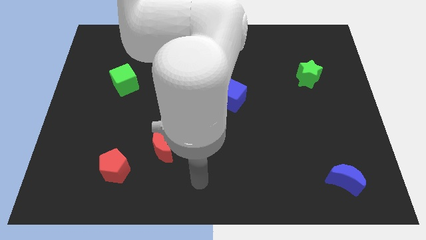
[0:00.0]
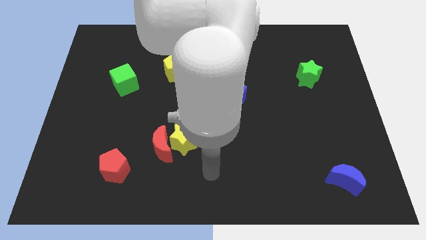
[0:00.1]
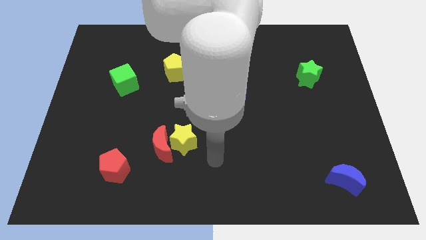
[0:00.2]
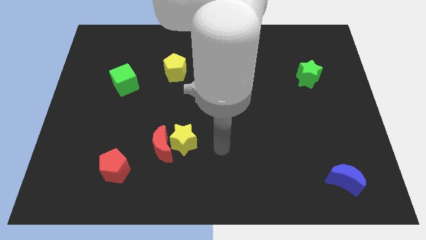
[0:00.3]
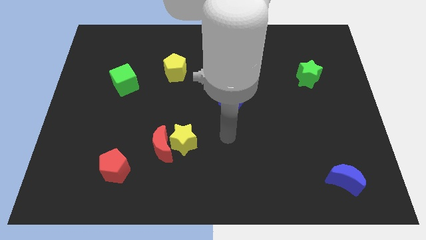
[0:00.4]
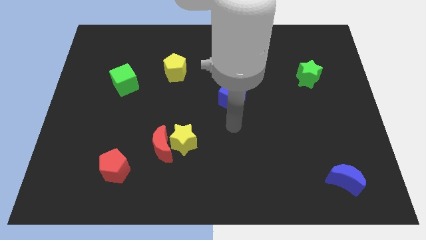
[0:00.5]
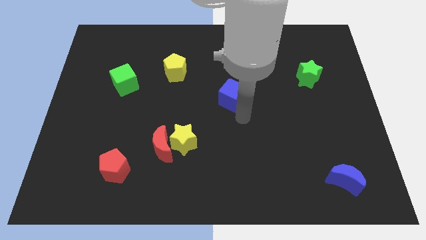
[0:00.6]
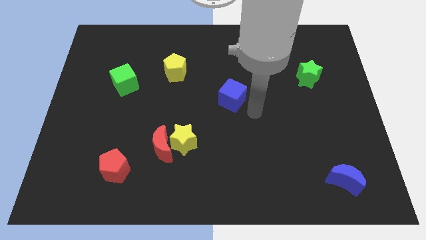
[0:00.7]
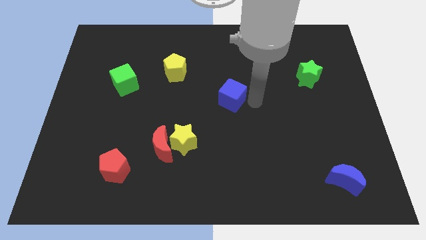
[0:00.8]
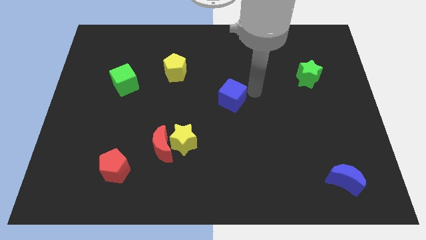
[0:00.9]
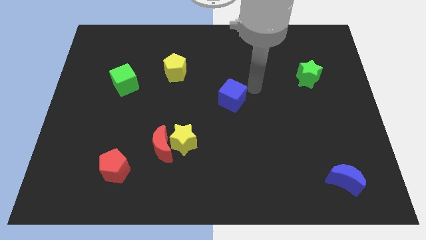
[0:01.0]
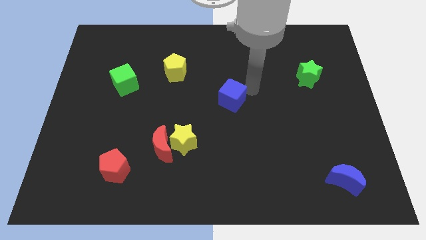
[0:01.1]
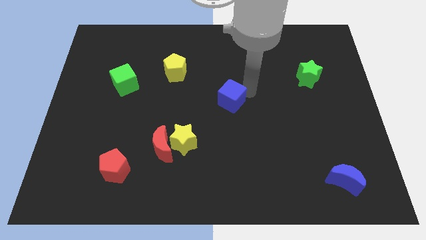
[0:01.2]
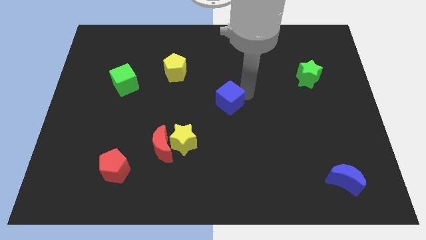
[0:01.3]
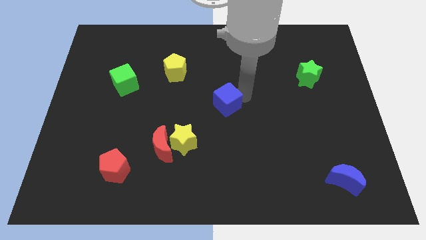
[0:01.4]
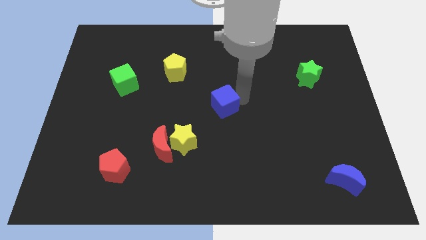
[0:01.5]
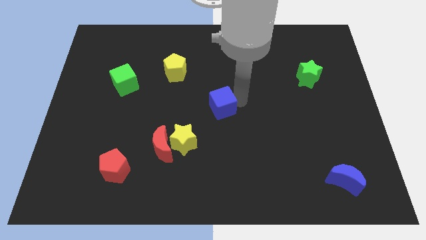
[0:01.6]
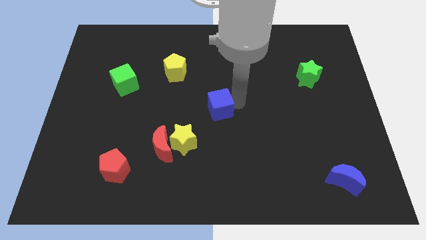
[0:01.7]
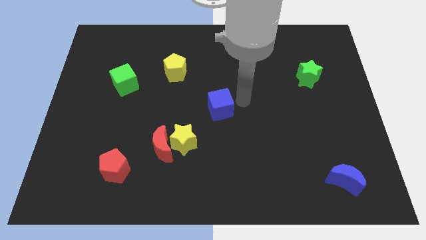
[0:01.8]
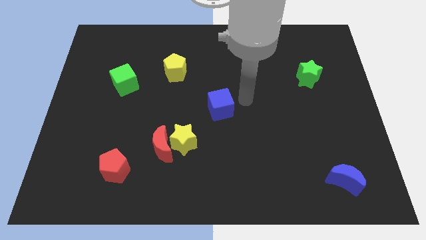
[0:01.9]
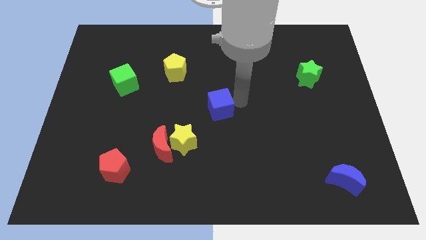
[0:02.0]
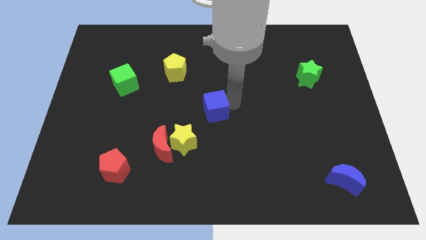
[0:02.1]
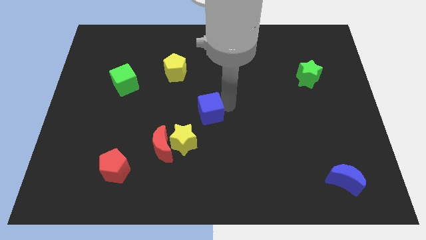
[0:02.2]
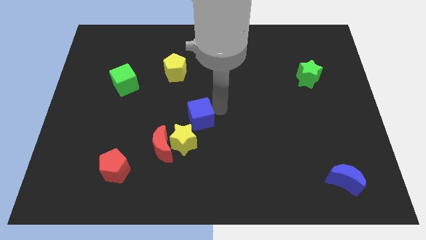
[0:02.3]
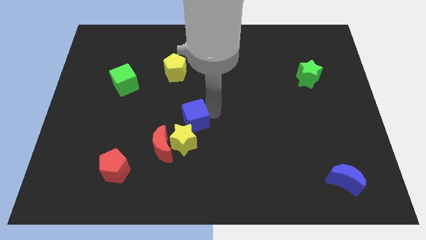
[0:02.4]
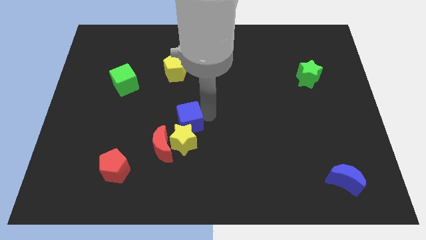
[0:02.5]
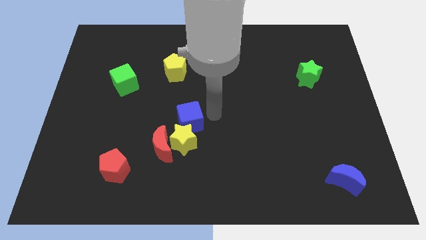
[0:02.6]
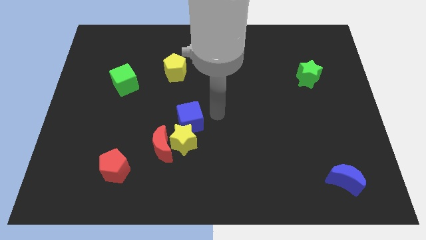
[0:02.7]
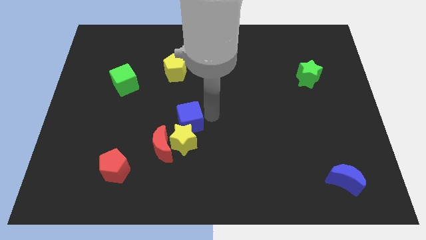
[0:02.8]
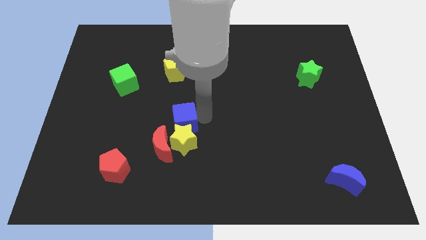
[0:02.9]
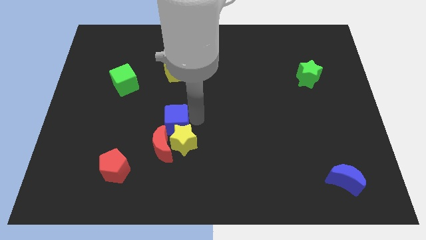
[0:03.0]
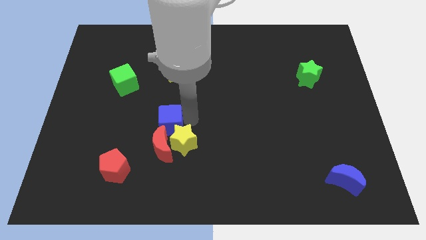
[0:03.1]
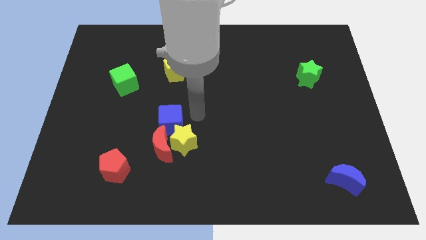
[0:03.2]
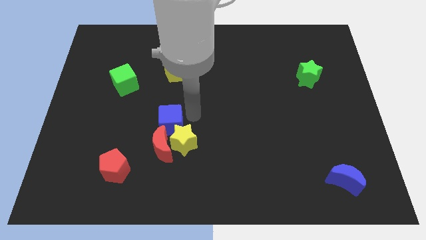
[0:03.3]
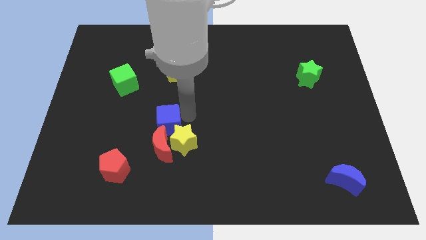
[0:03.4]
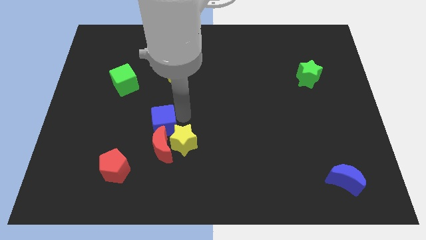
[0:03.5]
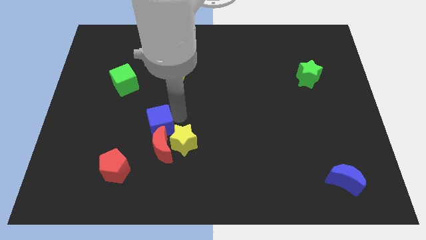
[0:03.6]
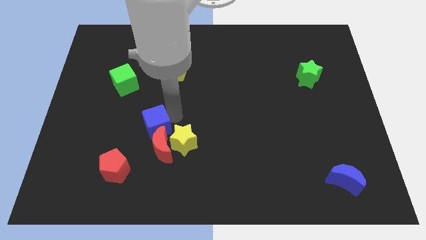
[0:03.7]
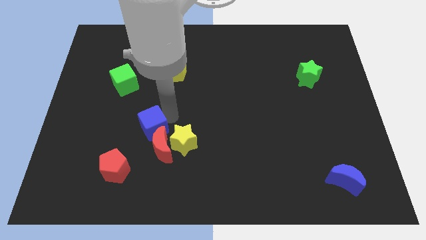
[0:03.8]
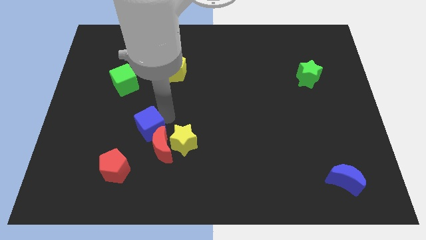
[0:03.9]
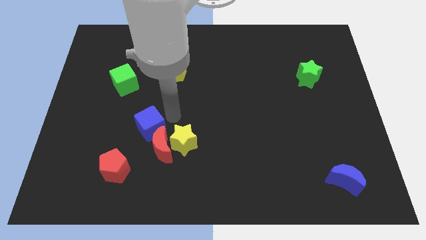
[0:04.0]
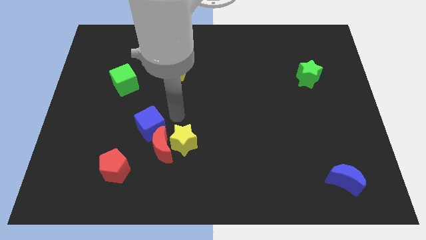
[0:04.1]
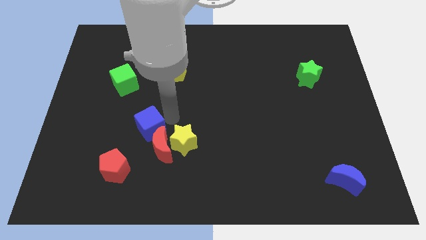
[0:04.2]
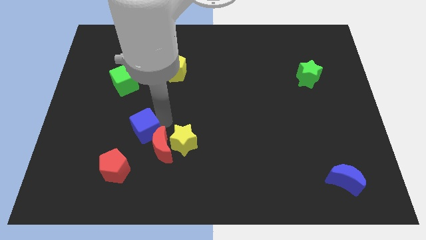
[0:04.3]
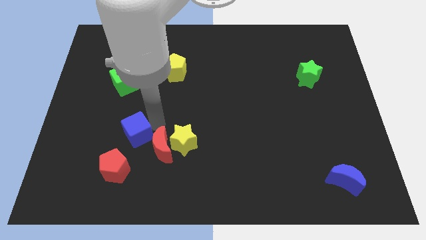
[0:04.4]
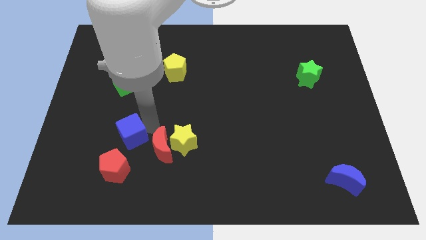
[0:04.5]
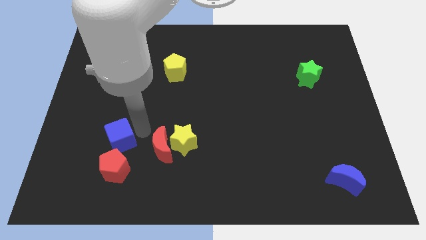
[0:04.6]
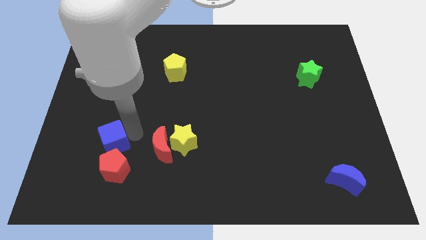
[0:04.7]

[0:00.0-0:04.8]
move the blue cube to the top left of the red pentagon

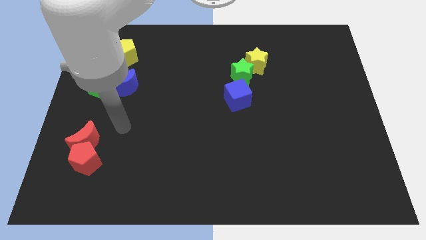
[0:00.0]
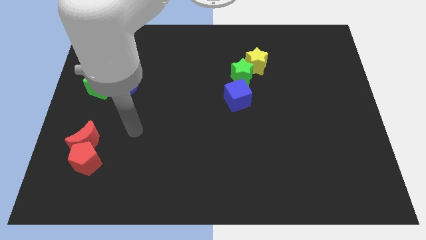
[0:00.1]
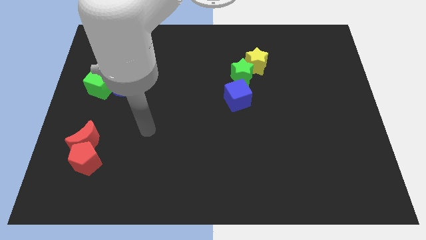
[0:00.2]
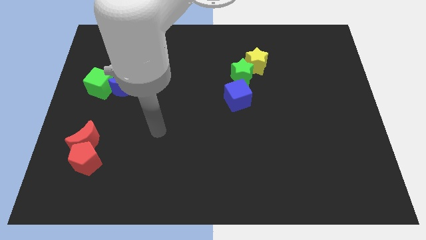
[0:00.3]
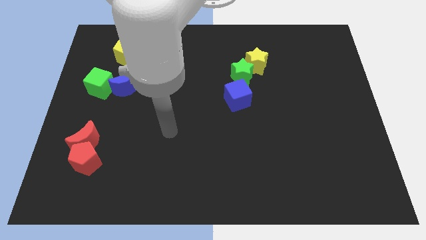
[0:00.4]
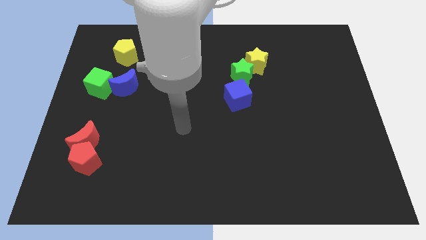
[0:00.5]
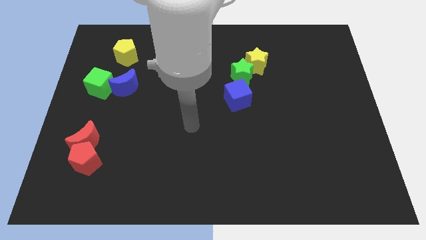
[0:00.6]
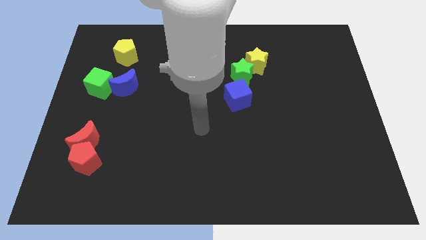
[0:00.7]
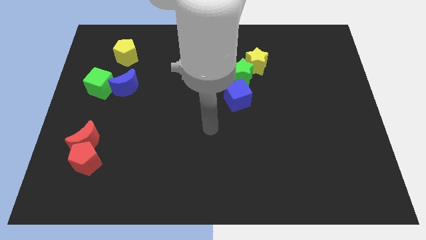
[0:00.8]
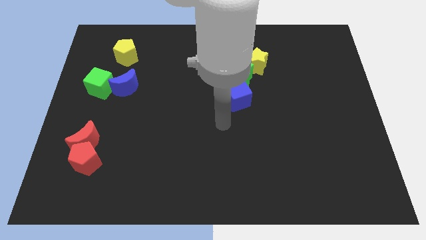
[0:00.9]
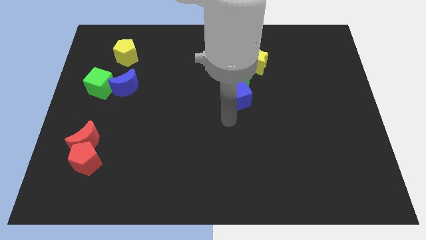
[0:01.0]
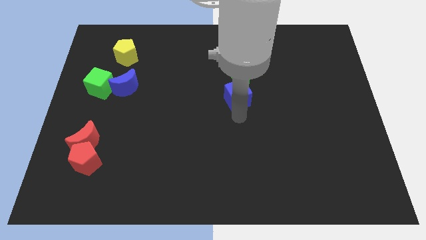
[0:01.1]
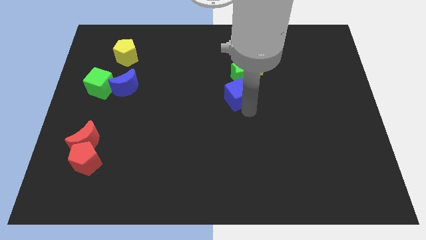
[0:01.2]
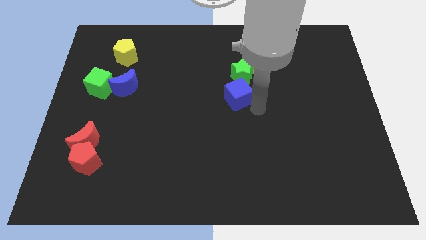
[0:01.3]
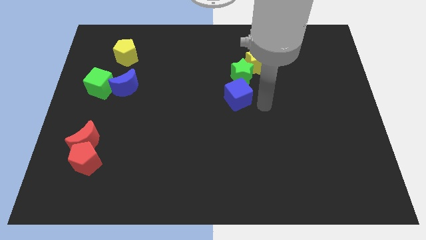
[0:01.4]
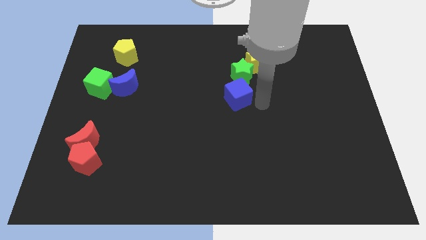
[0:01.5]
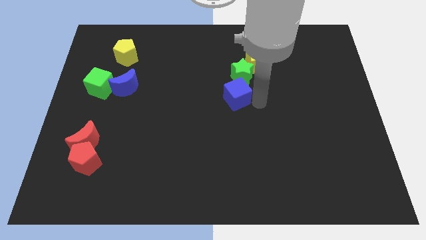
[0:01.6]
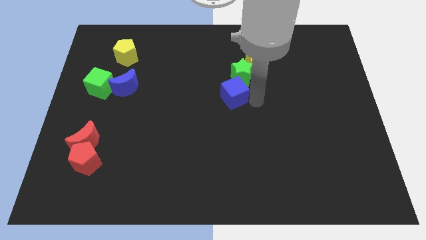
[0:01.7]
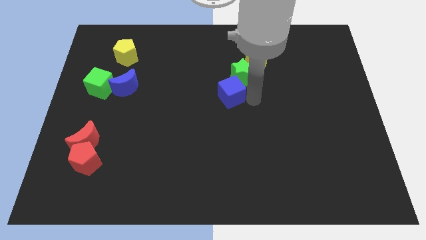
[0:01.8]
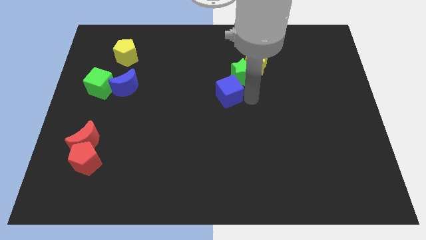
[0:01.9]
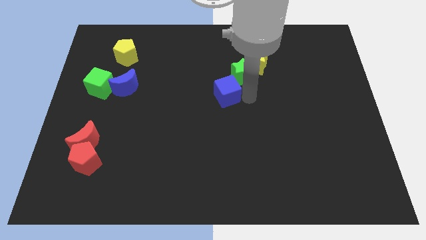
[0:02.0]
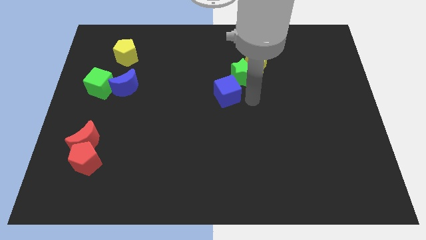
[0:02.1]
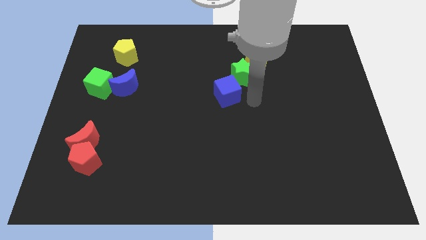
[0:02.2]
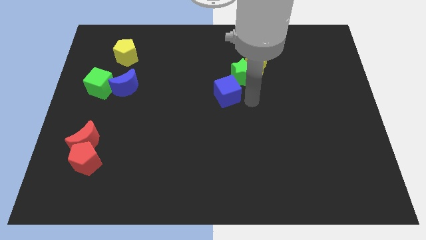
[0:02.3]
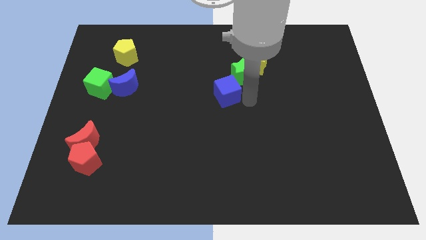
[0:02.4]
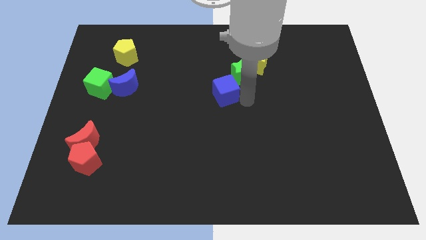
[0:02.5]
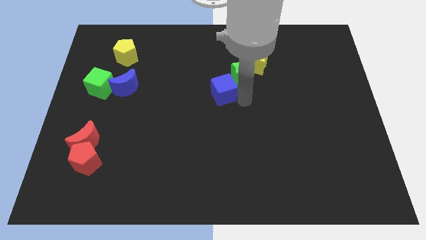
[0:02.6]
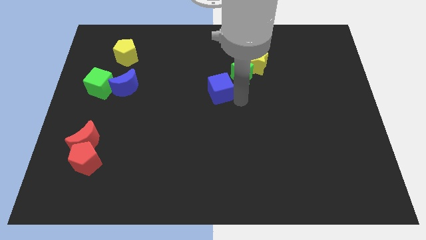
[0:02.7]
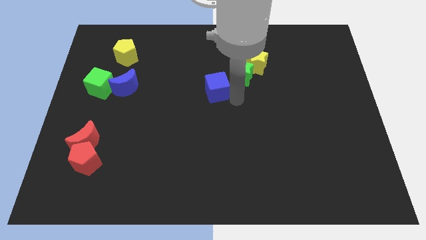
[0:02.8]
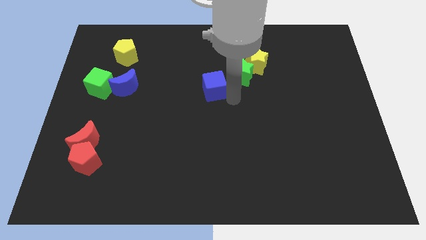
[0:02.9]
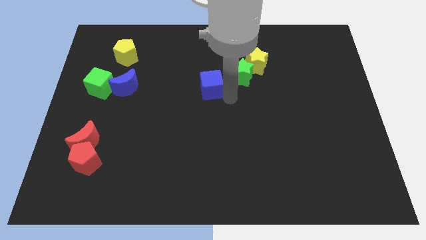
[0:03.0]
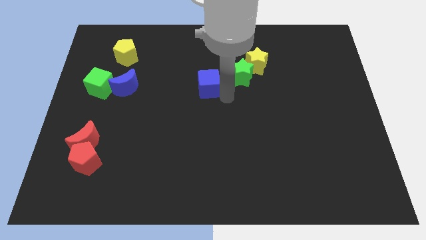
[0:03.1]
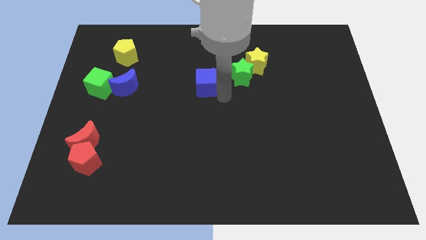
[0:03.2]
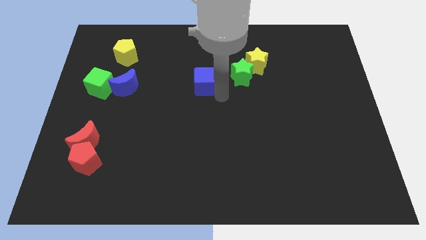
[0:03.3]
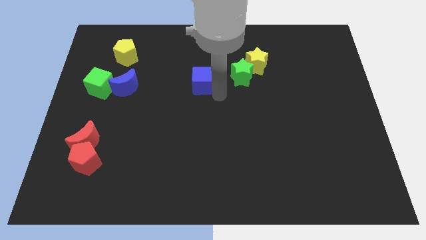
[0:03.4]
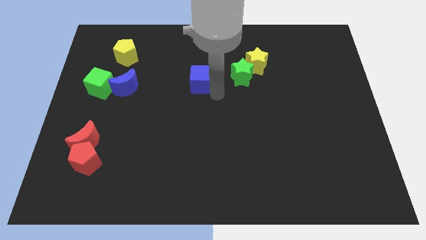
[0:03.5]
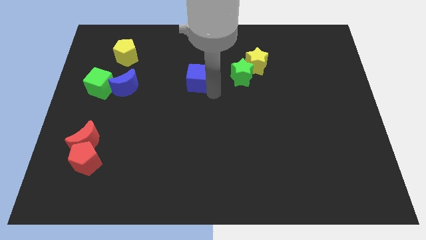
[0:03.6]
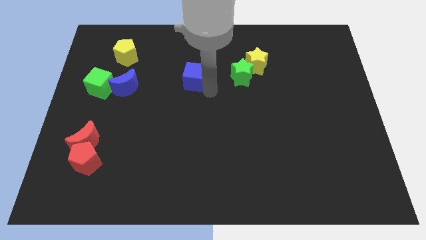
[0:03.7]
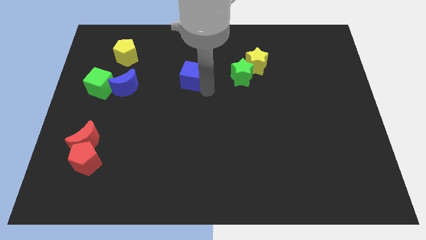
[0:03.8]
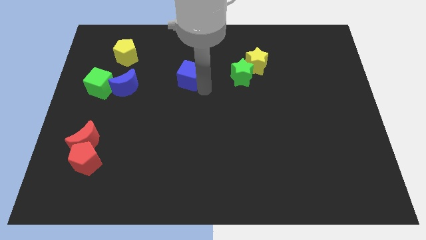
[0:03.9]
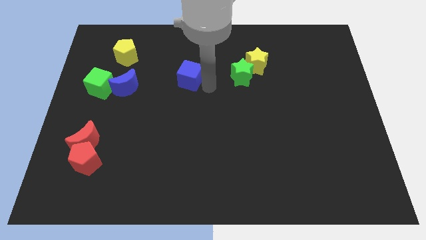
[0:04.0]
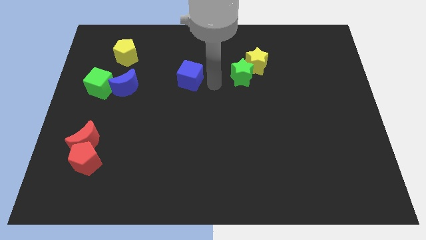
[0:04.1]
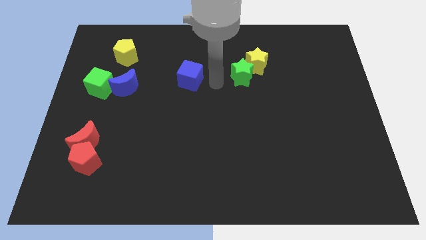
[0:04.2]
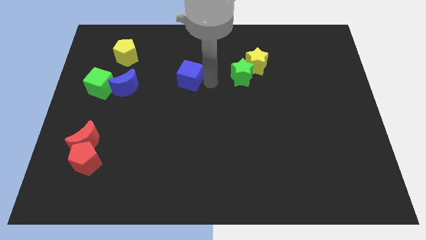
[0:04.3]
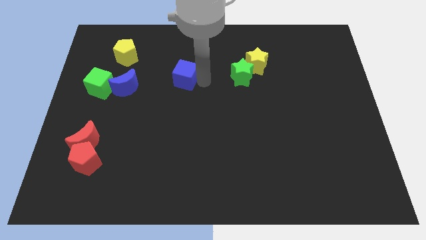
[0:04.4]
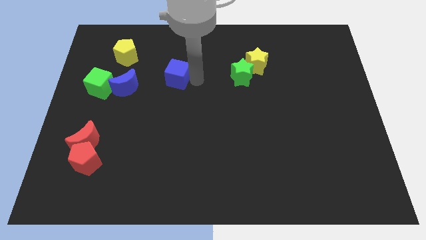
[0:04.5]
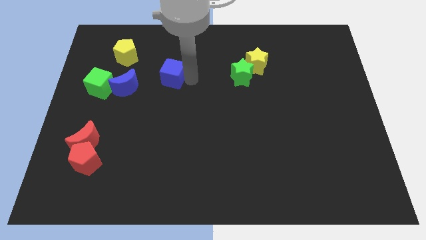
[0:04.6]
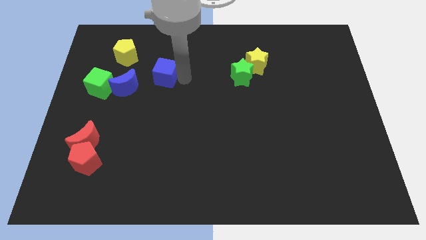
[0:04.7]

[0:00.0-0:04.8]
move the blue cube to the top right of the blue moon
